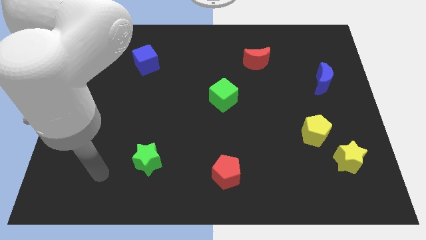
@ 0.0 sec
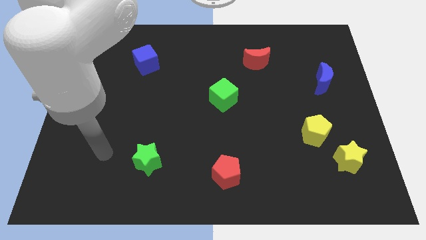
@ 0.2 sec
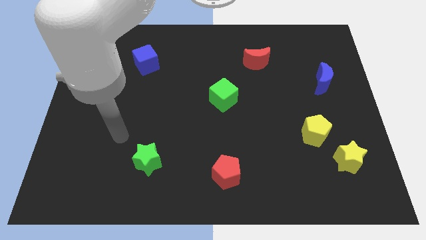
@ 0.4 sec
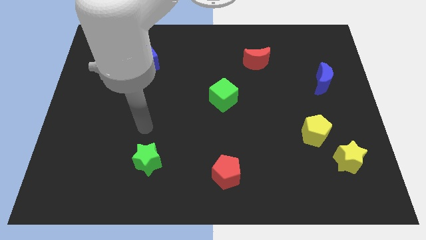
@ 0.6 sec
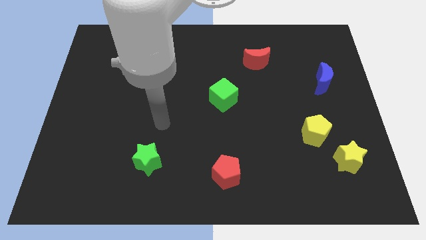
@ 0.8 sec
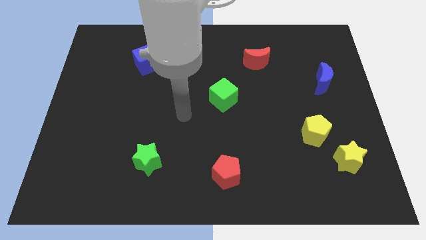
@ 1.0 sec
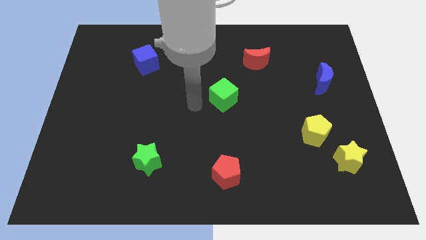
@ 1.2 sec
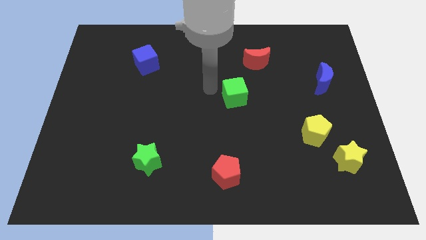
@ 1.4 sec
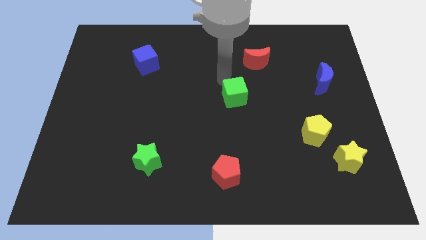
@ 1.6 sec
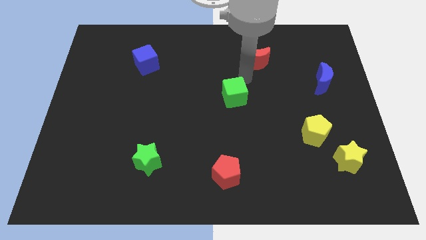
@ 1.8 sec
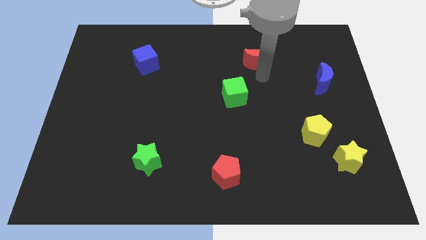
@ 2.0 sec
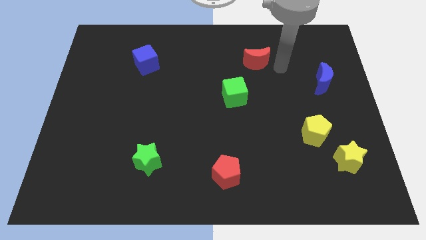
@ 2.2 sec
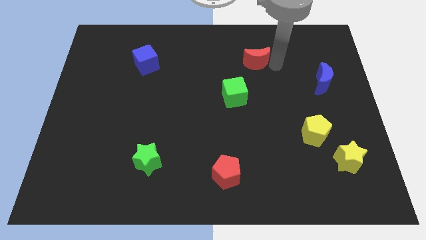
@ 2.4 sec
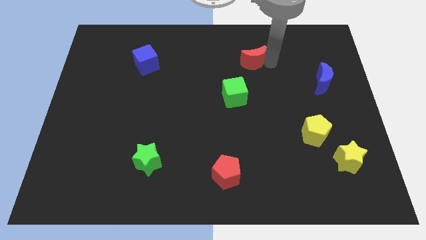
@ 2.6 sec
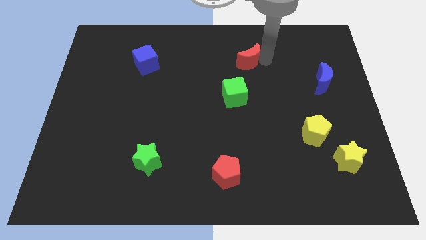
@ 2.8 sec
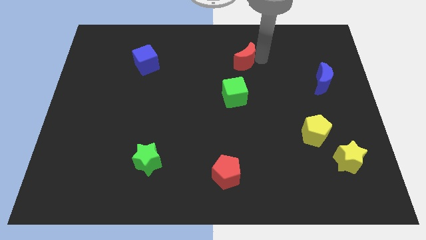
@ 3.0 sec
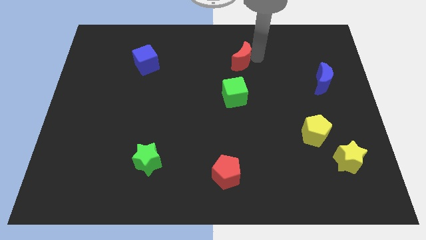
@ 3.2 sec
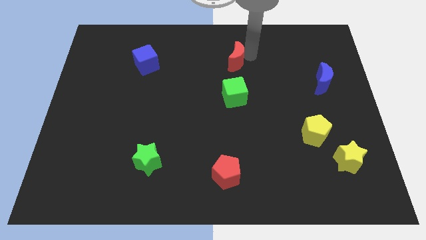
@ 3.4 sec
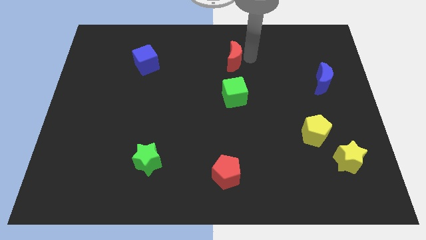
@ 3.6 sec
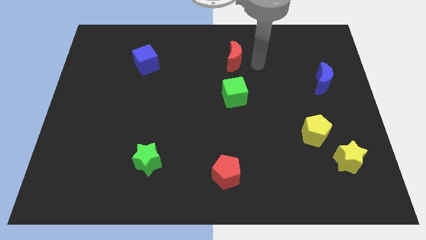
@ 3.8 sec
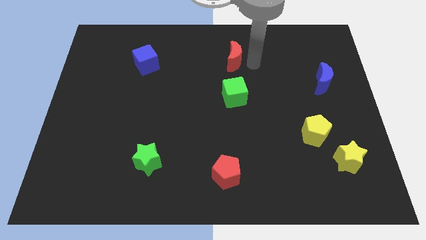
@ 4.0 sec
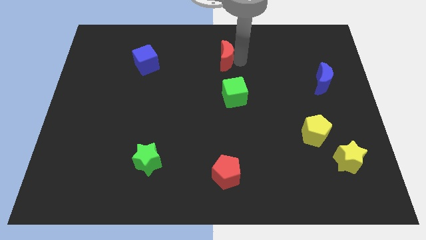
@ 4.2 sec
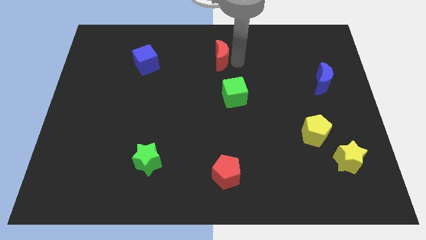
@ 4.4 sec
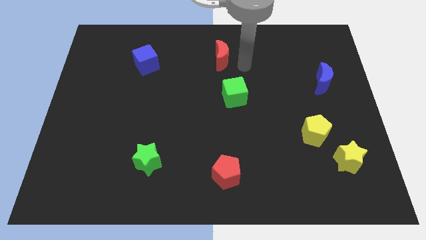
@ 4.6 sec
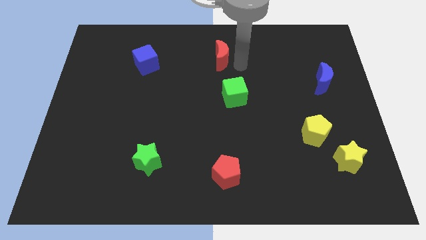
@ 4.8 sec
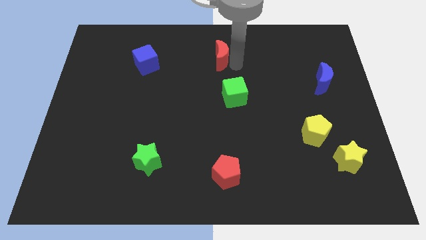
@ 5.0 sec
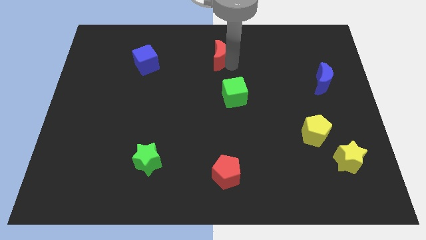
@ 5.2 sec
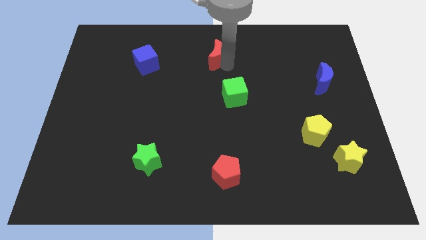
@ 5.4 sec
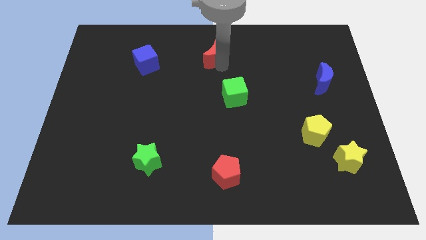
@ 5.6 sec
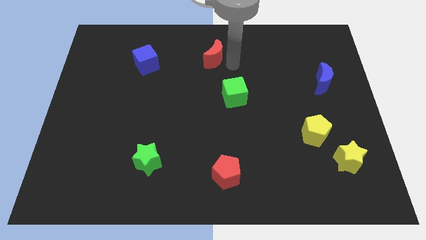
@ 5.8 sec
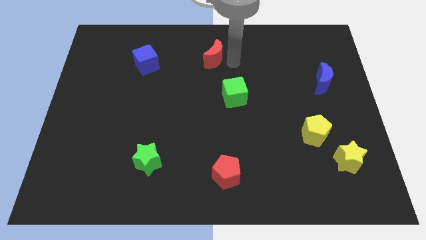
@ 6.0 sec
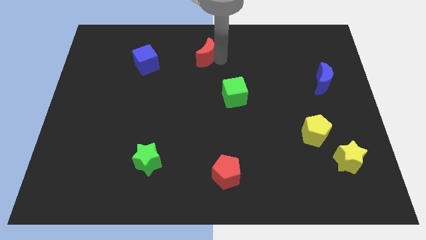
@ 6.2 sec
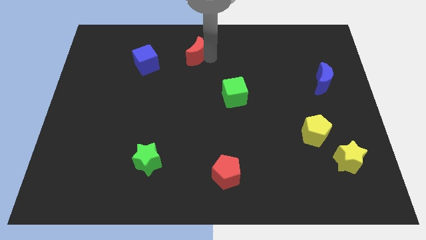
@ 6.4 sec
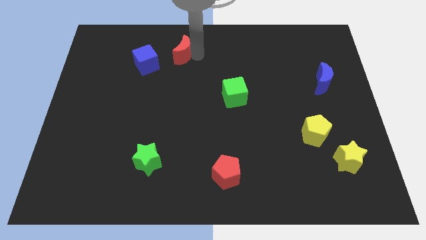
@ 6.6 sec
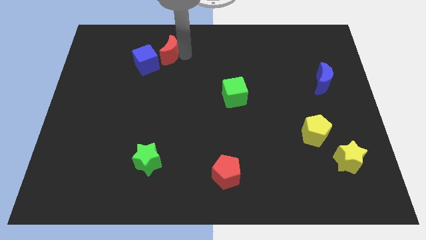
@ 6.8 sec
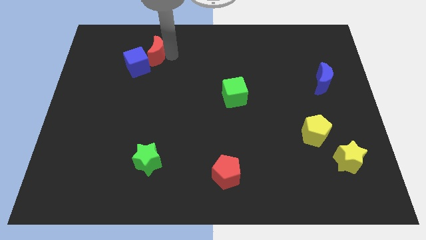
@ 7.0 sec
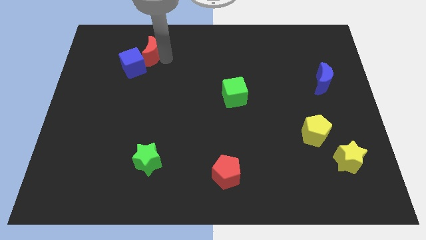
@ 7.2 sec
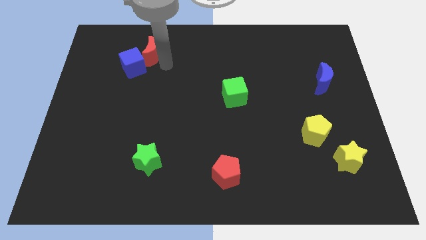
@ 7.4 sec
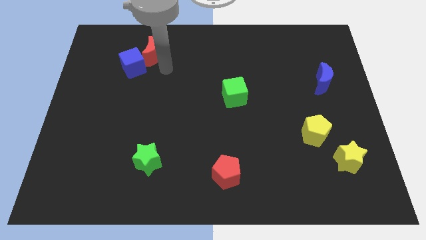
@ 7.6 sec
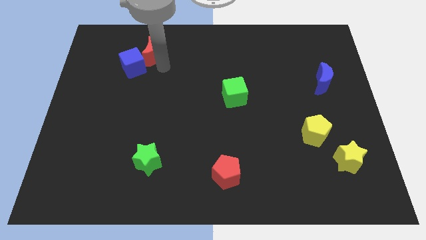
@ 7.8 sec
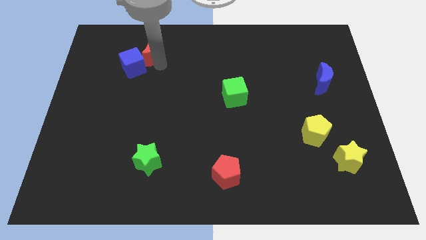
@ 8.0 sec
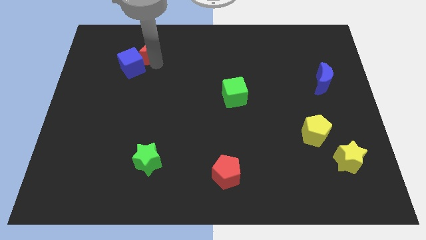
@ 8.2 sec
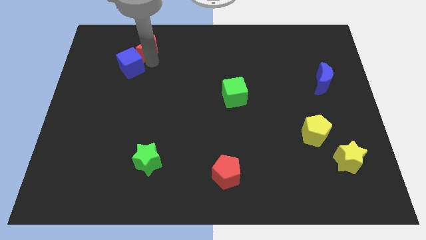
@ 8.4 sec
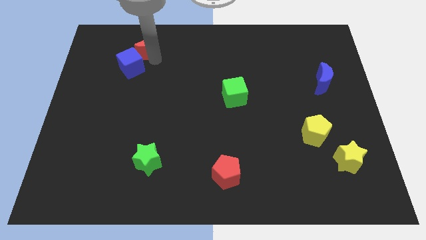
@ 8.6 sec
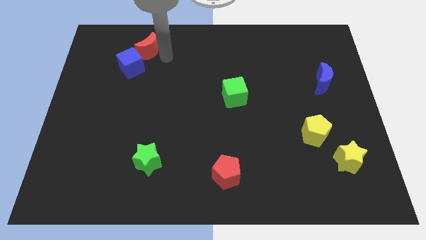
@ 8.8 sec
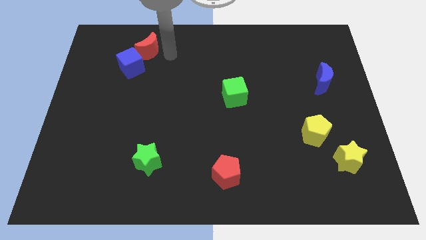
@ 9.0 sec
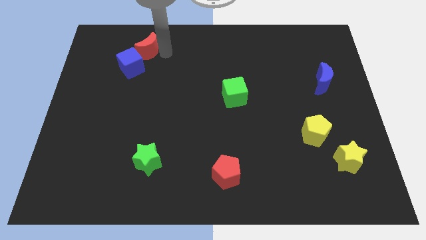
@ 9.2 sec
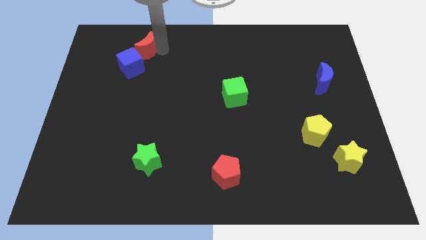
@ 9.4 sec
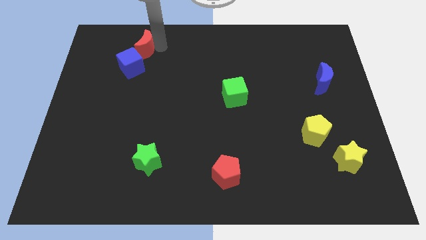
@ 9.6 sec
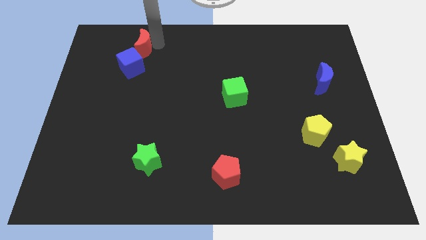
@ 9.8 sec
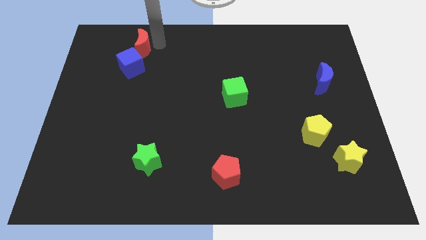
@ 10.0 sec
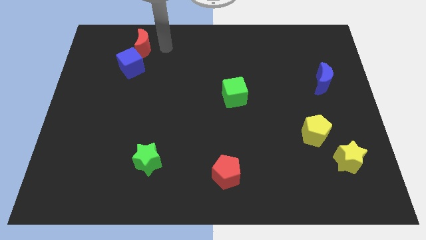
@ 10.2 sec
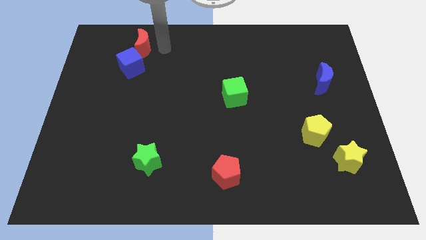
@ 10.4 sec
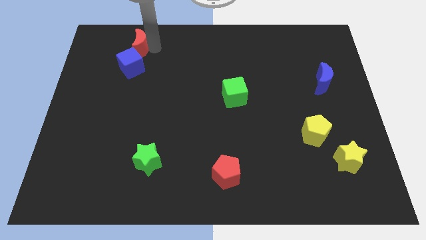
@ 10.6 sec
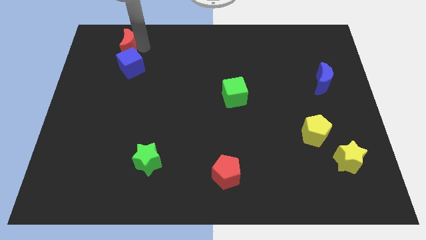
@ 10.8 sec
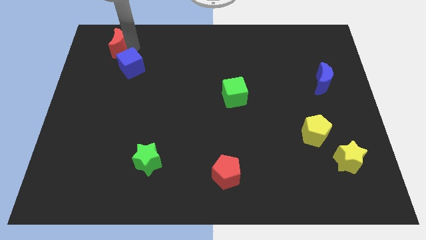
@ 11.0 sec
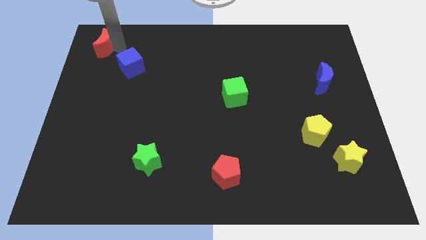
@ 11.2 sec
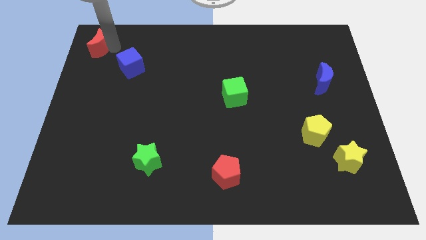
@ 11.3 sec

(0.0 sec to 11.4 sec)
push the red moon to the top left of the board
